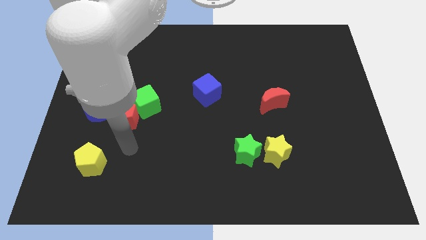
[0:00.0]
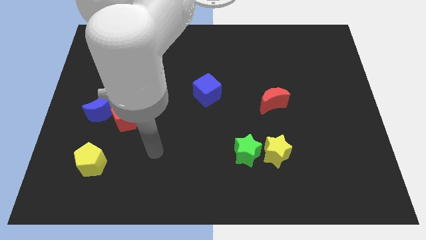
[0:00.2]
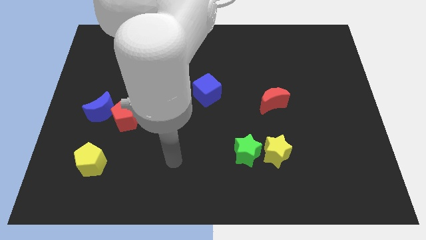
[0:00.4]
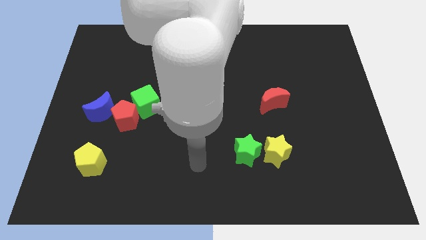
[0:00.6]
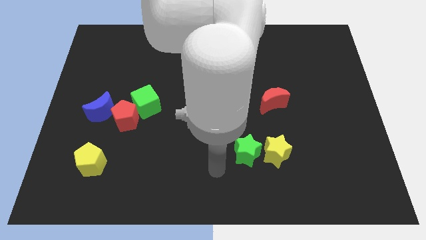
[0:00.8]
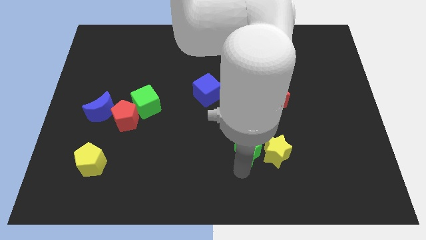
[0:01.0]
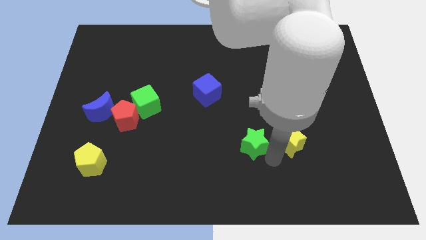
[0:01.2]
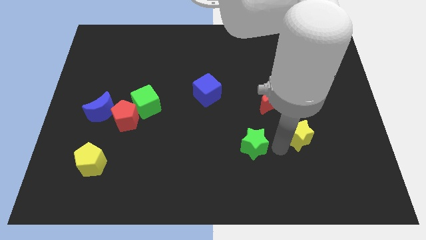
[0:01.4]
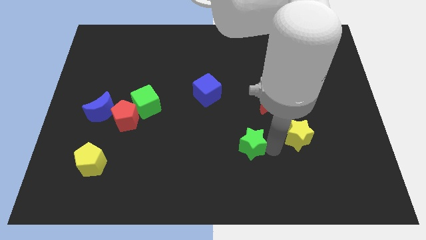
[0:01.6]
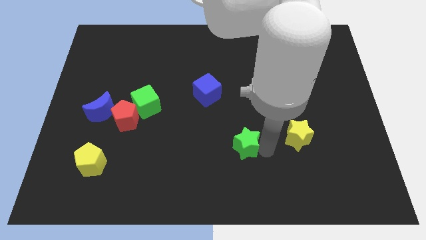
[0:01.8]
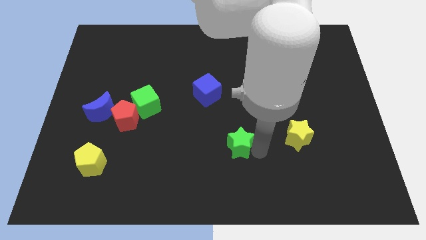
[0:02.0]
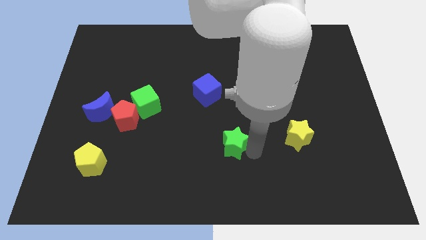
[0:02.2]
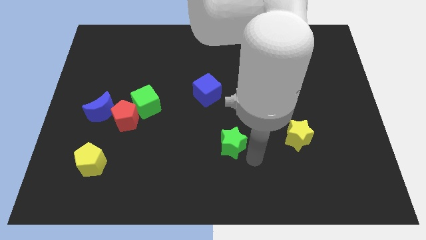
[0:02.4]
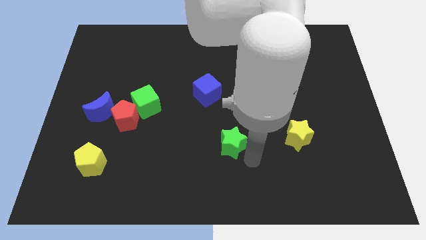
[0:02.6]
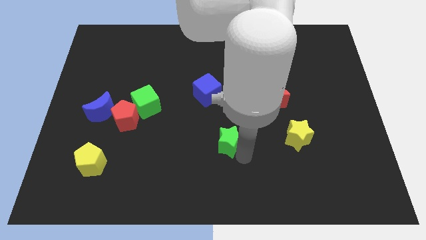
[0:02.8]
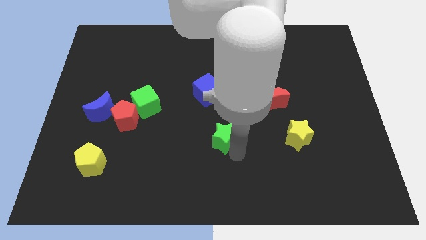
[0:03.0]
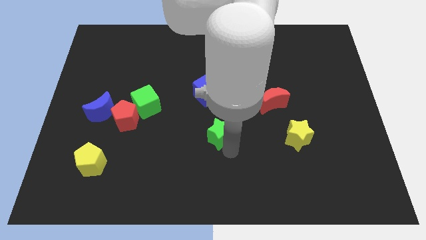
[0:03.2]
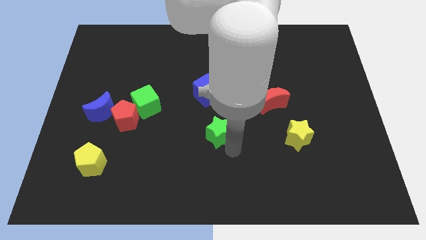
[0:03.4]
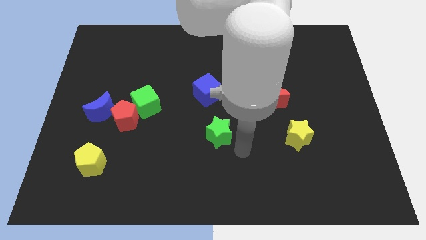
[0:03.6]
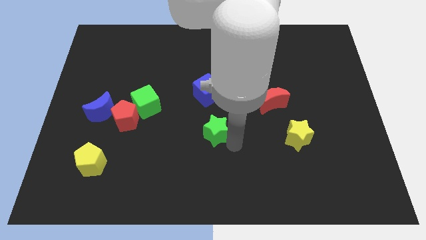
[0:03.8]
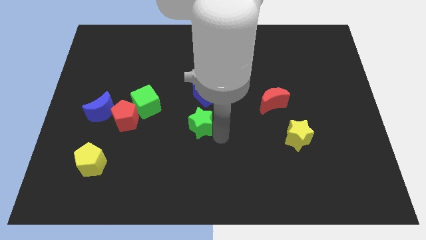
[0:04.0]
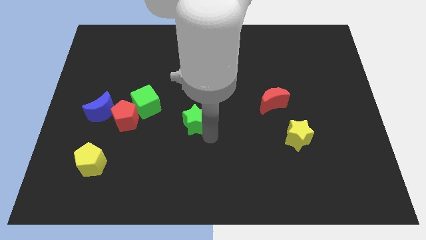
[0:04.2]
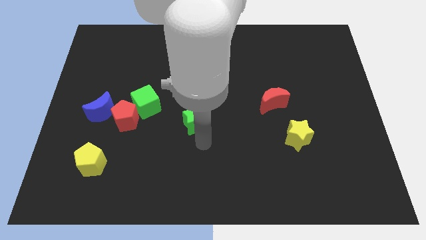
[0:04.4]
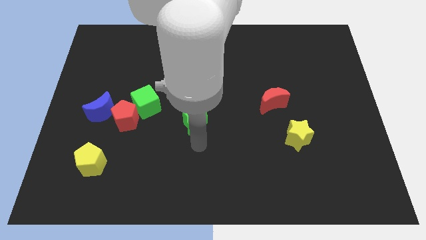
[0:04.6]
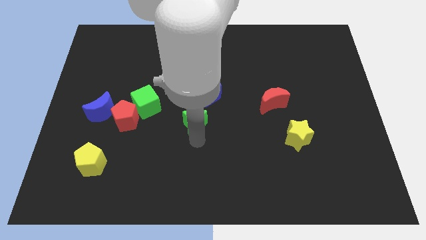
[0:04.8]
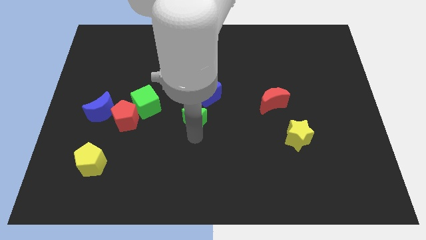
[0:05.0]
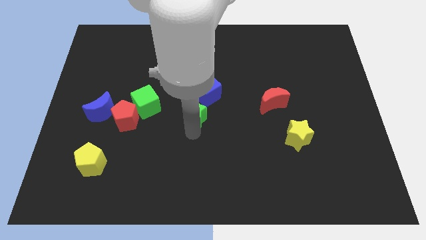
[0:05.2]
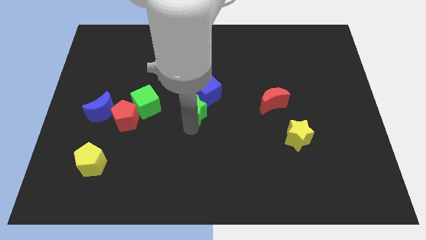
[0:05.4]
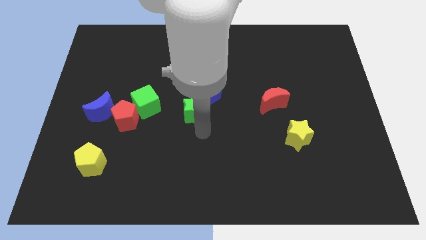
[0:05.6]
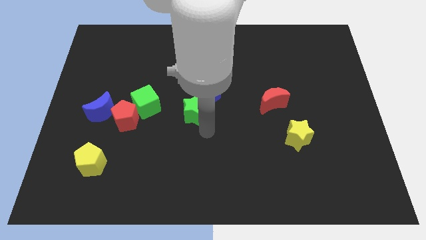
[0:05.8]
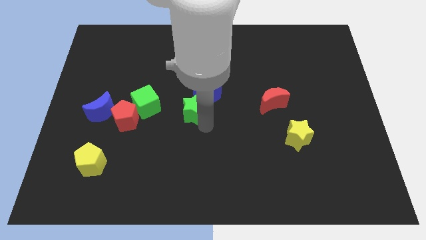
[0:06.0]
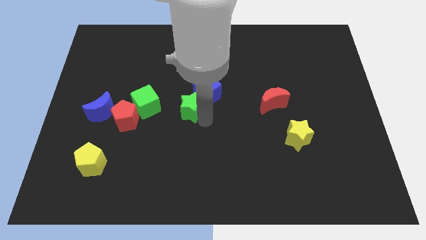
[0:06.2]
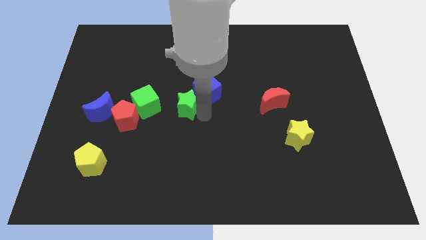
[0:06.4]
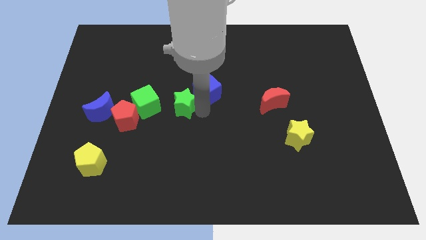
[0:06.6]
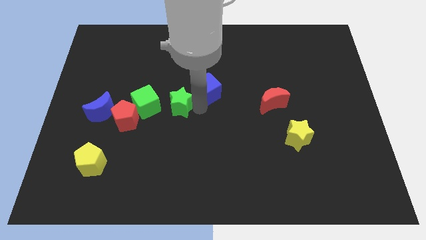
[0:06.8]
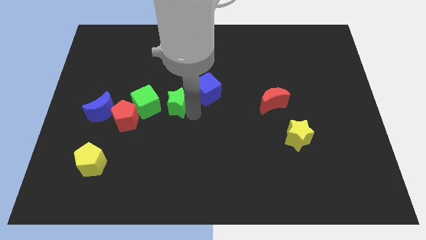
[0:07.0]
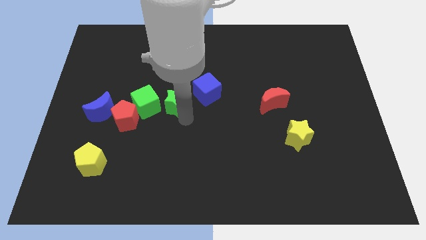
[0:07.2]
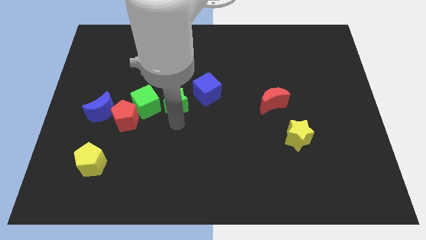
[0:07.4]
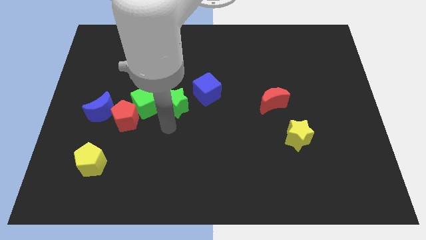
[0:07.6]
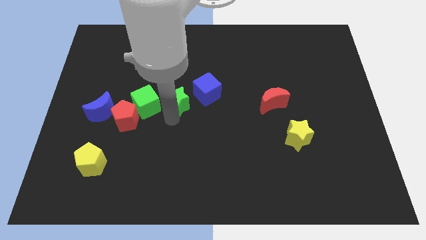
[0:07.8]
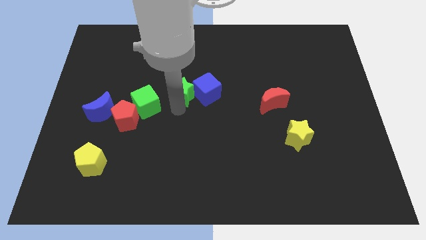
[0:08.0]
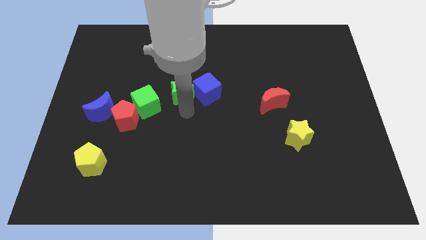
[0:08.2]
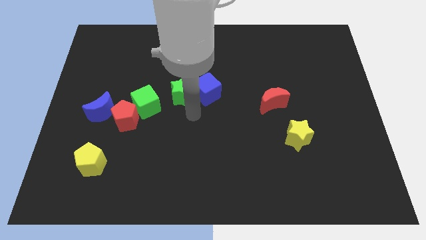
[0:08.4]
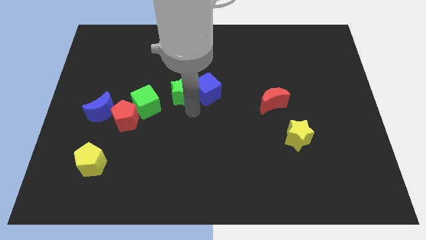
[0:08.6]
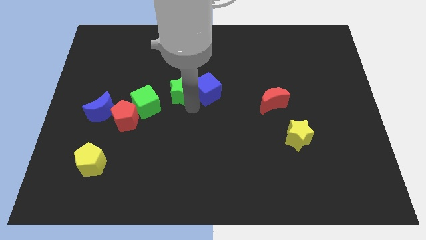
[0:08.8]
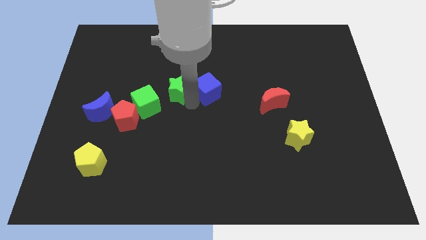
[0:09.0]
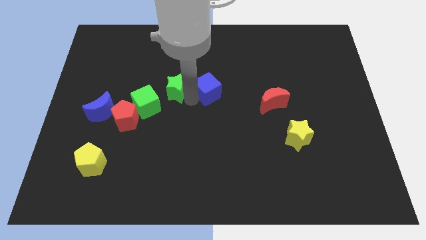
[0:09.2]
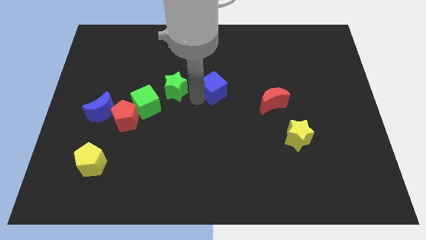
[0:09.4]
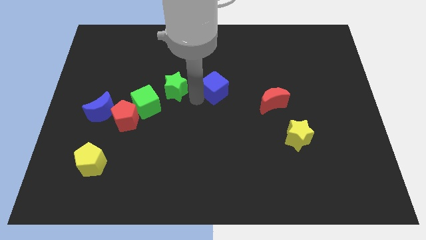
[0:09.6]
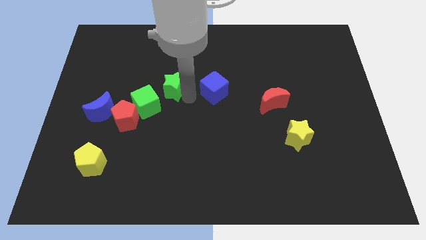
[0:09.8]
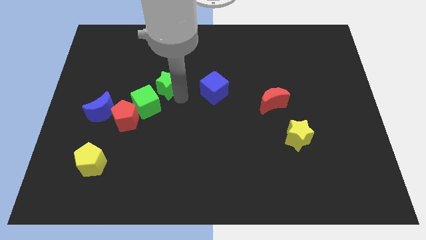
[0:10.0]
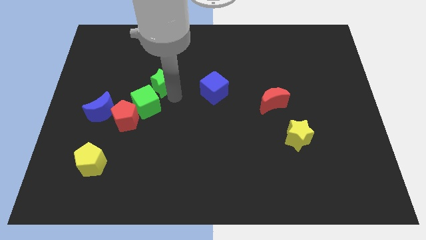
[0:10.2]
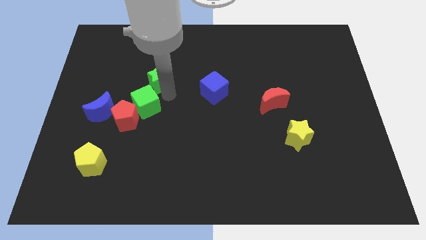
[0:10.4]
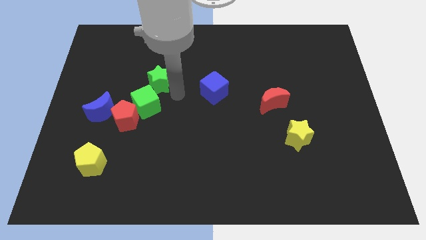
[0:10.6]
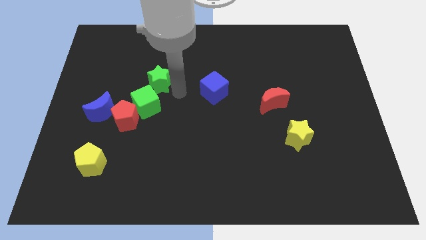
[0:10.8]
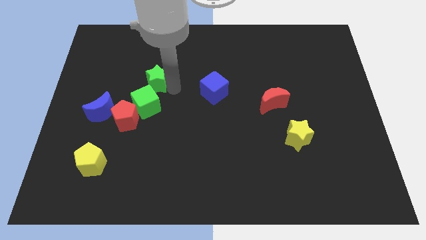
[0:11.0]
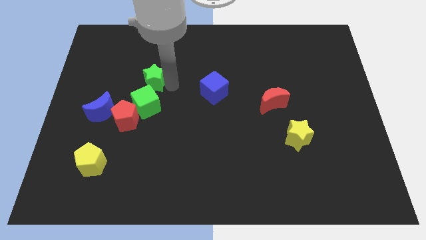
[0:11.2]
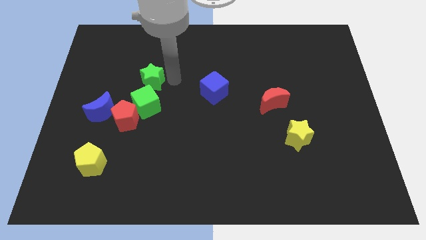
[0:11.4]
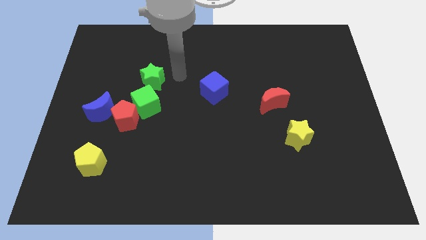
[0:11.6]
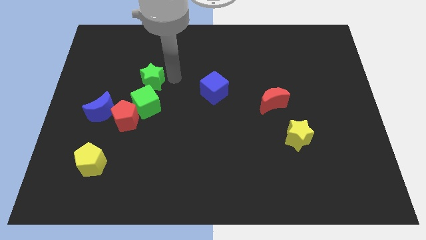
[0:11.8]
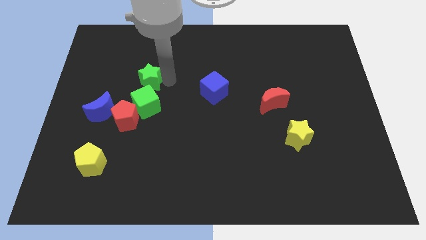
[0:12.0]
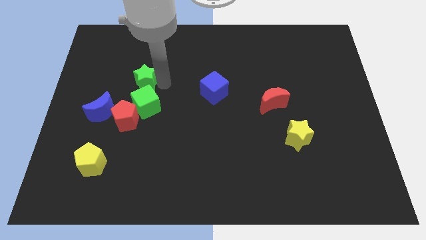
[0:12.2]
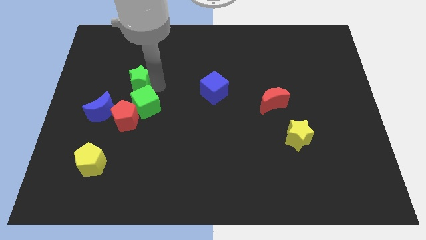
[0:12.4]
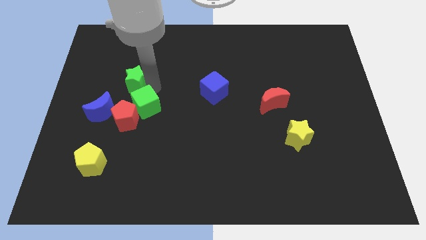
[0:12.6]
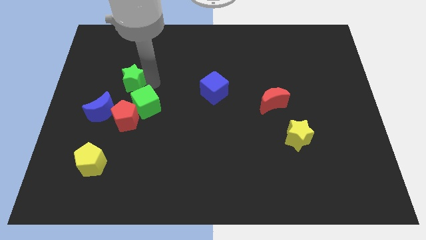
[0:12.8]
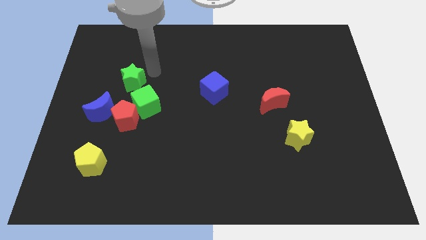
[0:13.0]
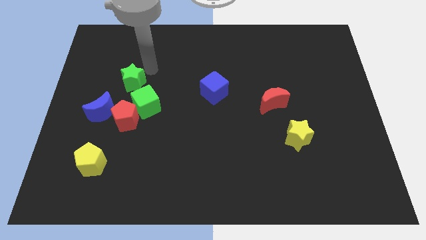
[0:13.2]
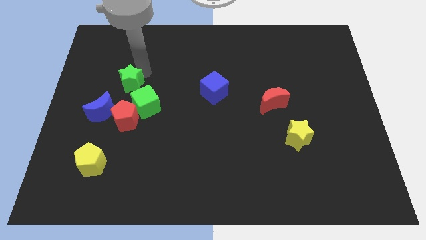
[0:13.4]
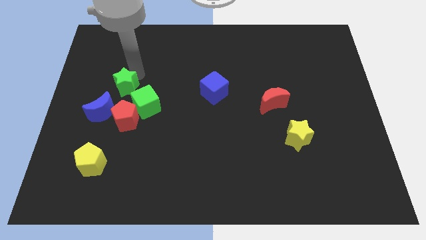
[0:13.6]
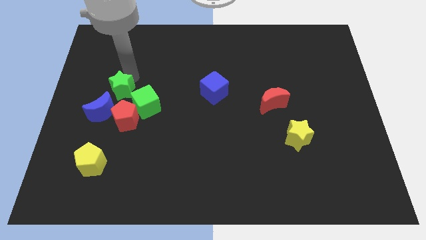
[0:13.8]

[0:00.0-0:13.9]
move the green star diagonally up and to the left of the red pentagon

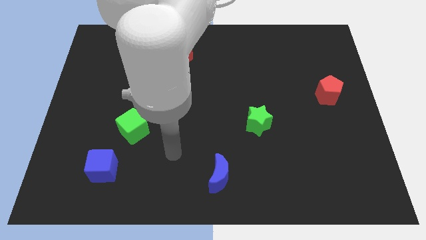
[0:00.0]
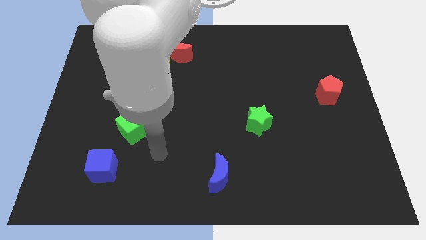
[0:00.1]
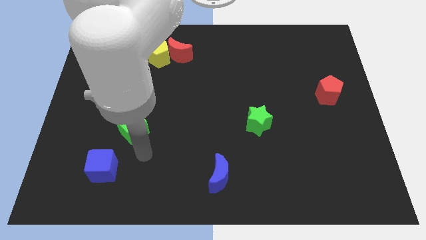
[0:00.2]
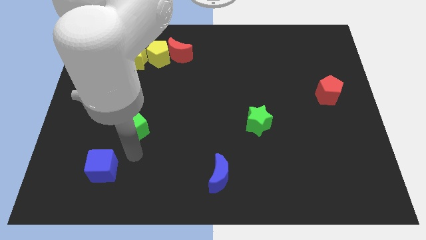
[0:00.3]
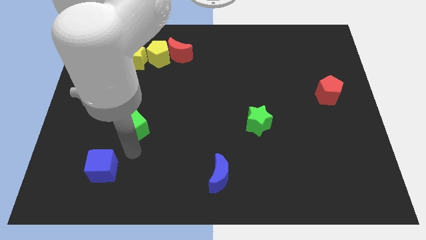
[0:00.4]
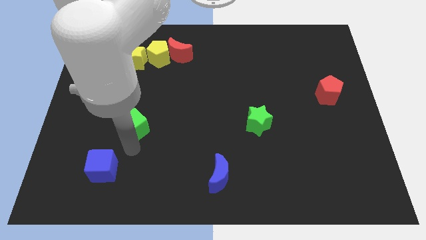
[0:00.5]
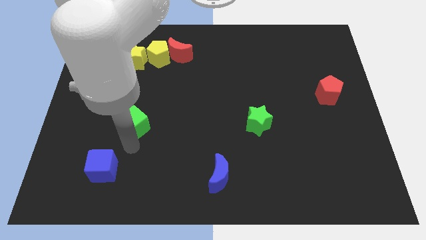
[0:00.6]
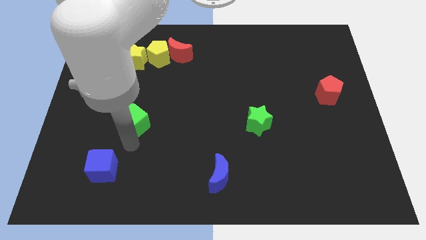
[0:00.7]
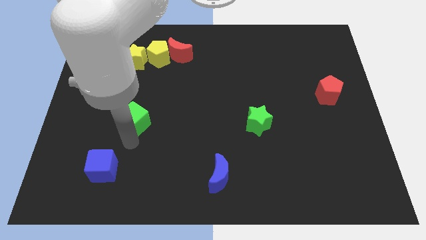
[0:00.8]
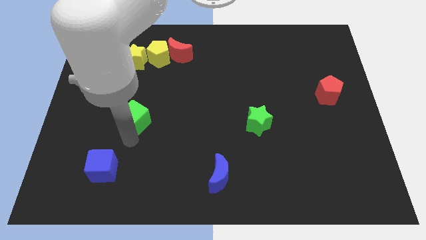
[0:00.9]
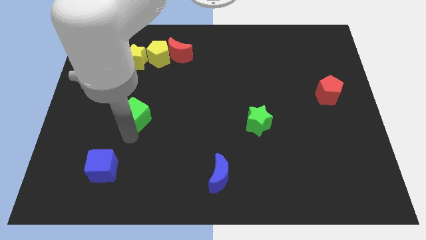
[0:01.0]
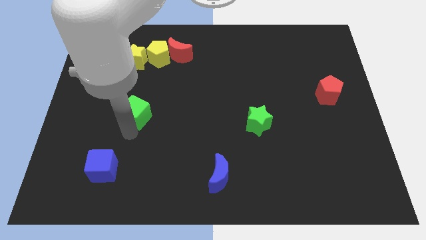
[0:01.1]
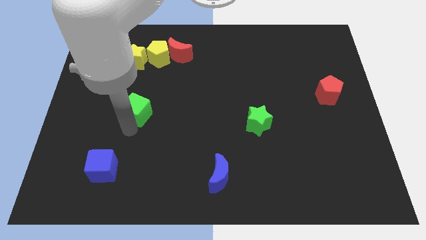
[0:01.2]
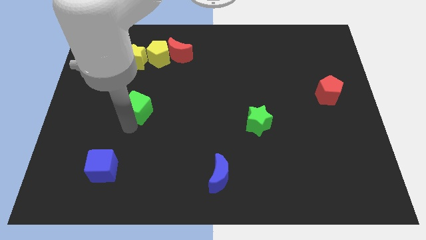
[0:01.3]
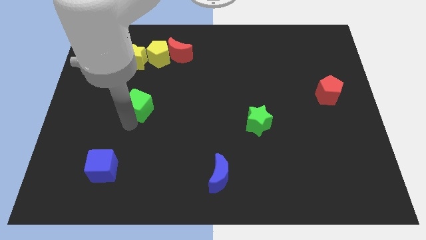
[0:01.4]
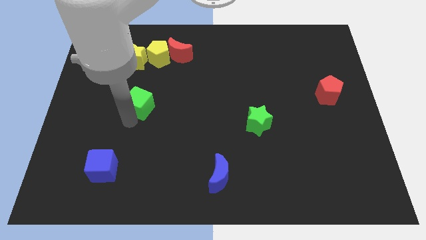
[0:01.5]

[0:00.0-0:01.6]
move the green cube to the bottom of the yellow star
